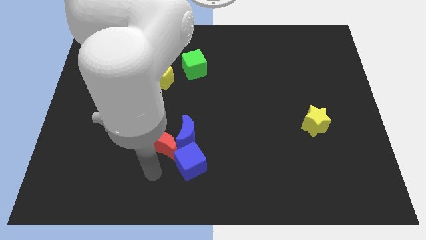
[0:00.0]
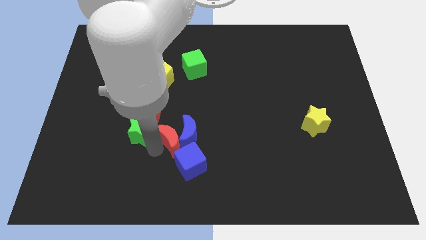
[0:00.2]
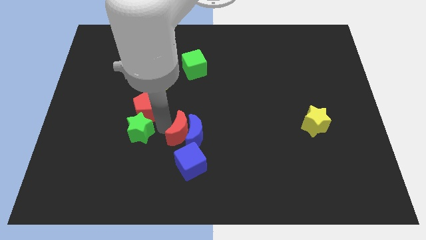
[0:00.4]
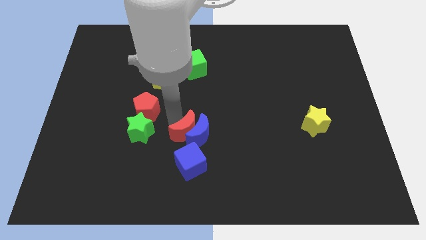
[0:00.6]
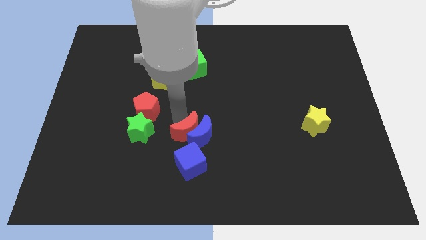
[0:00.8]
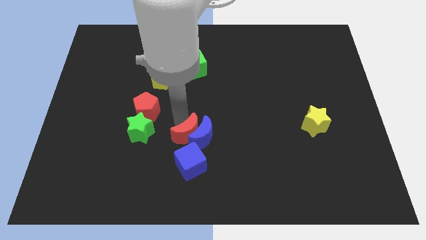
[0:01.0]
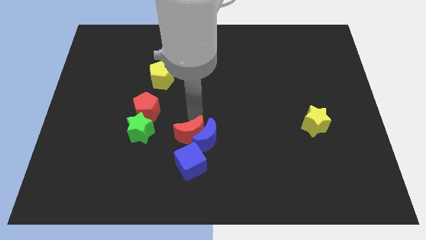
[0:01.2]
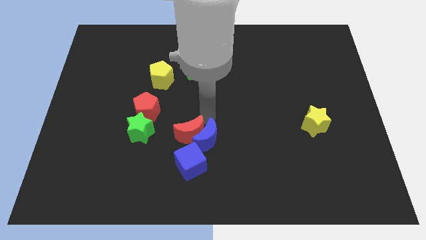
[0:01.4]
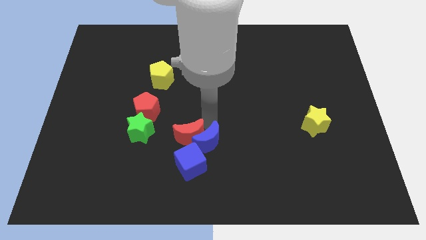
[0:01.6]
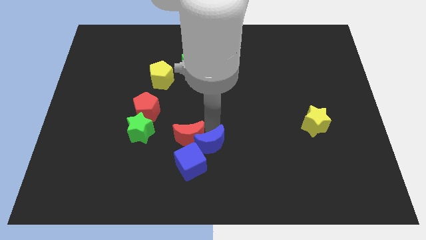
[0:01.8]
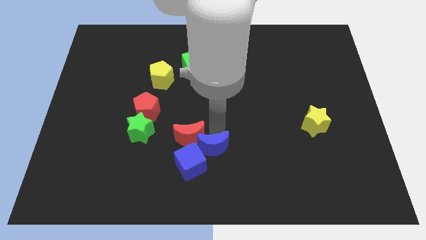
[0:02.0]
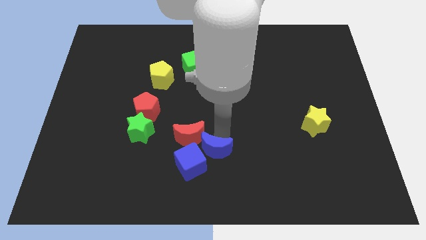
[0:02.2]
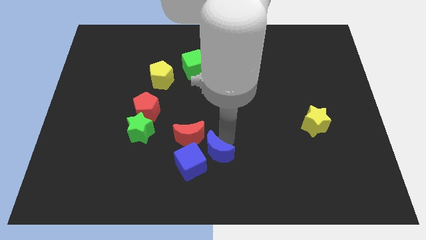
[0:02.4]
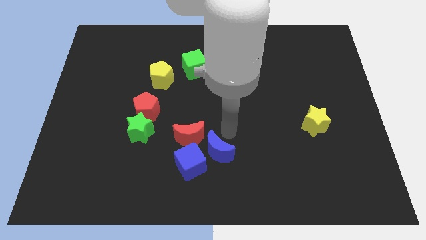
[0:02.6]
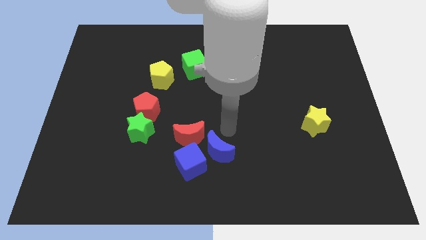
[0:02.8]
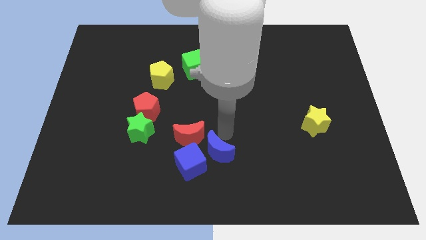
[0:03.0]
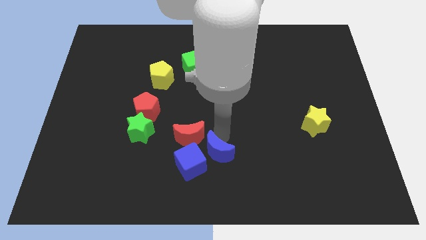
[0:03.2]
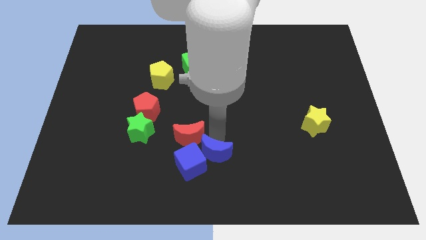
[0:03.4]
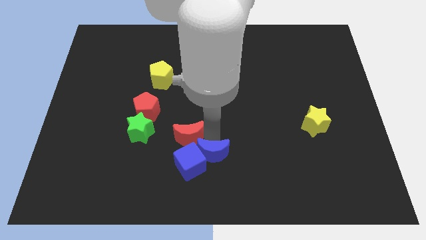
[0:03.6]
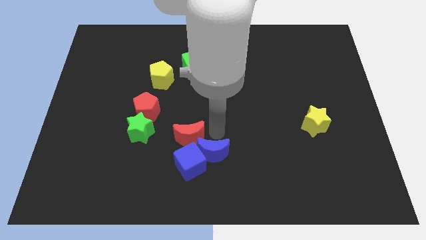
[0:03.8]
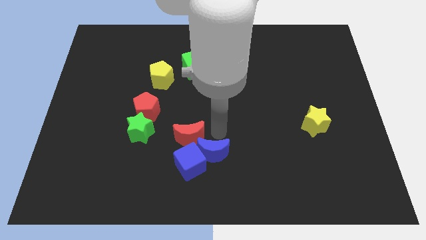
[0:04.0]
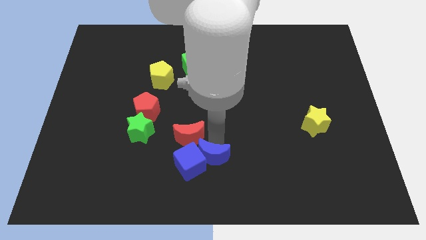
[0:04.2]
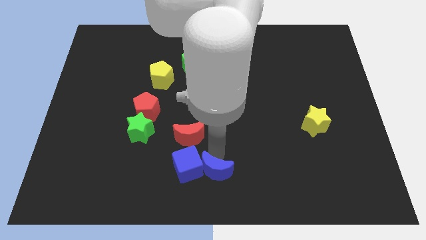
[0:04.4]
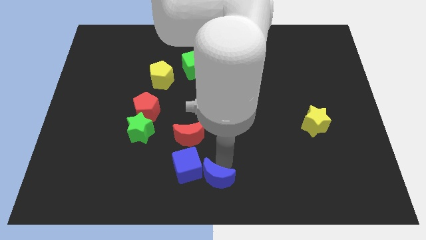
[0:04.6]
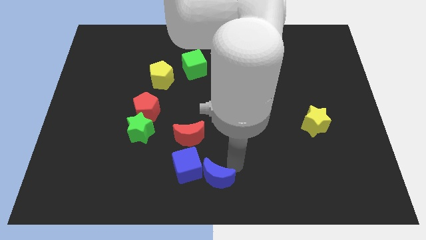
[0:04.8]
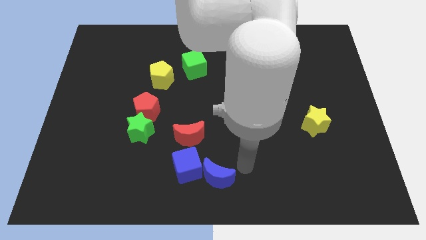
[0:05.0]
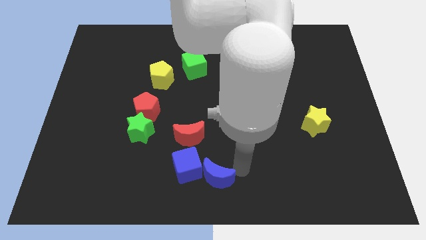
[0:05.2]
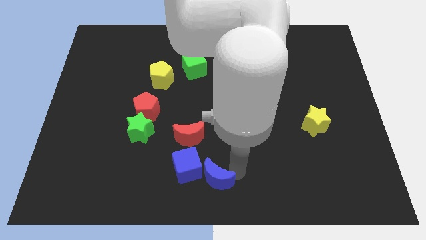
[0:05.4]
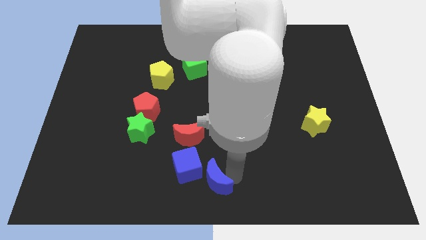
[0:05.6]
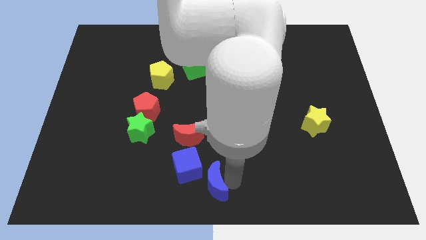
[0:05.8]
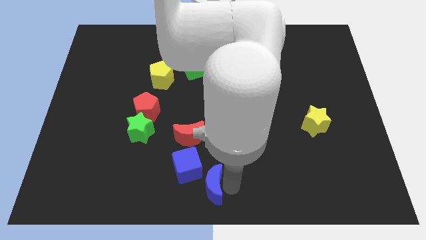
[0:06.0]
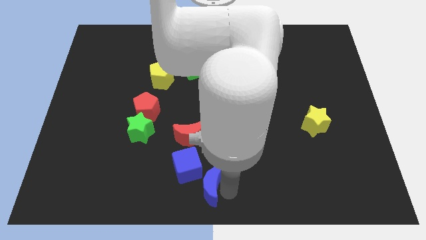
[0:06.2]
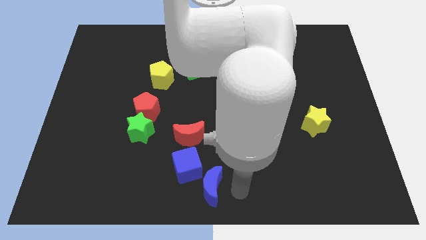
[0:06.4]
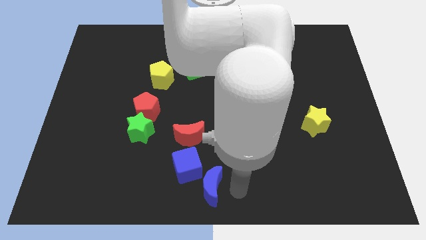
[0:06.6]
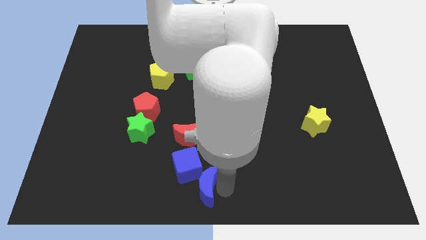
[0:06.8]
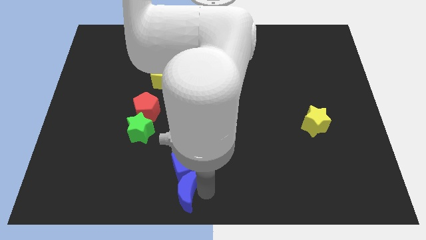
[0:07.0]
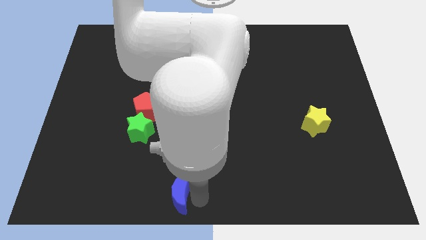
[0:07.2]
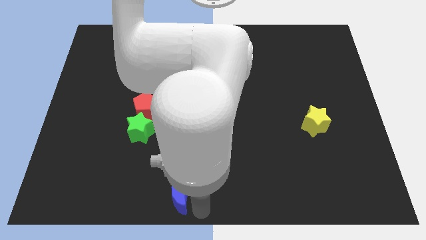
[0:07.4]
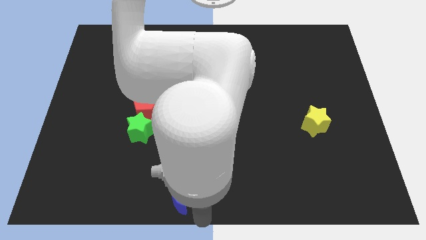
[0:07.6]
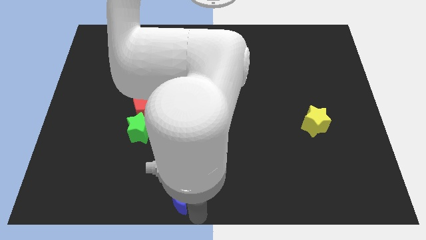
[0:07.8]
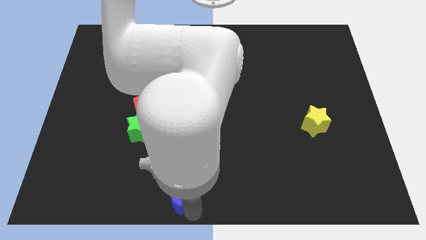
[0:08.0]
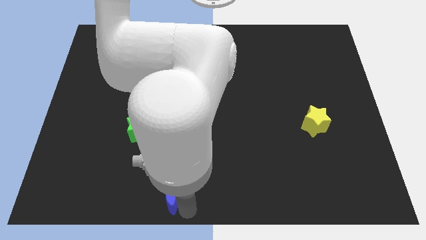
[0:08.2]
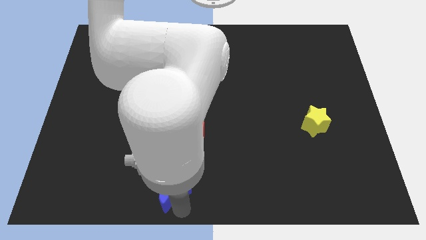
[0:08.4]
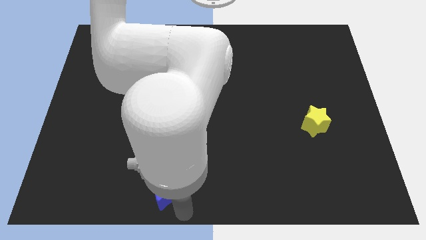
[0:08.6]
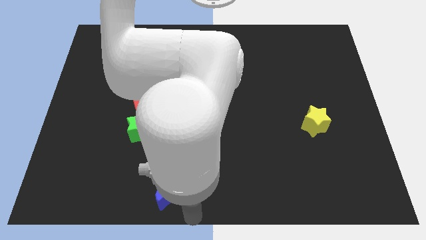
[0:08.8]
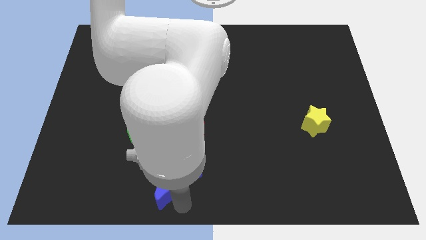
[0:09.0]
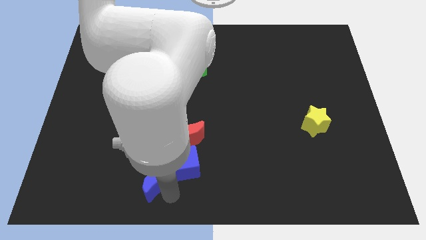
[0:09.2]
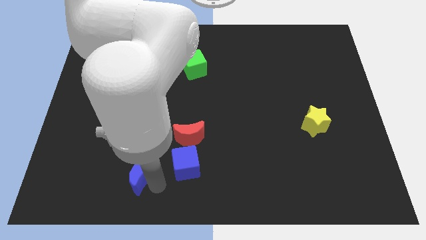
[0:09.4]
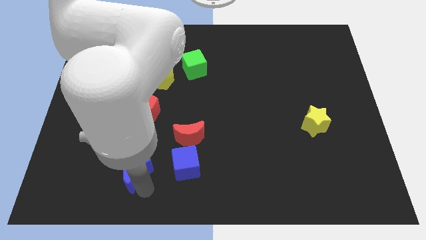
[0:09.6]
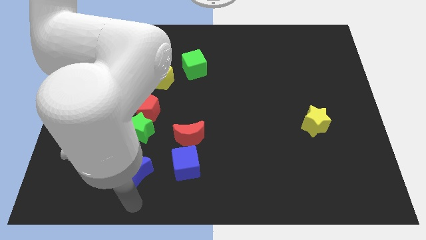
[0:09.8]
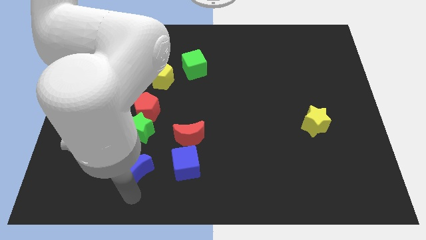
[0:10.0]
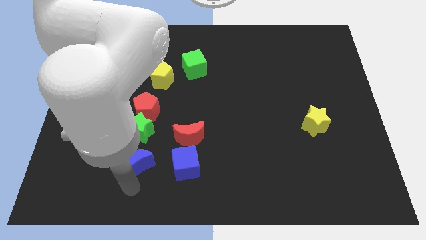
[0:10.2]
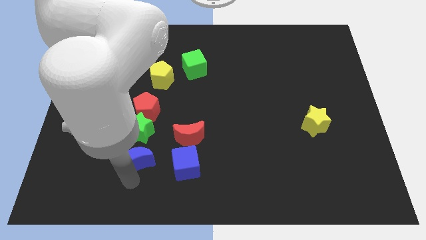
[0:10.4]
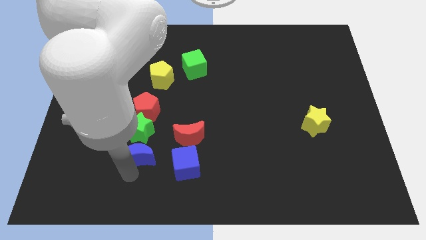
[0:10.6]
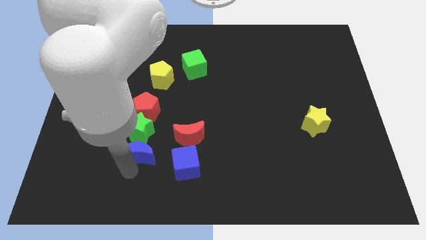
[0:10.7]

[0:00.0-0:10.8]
slide the blue moon to the left of the red moon

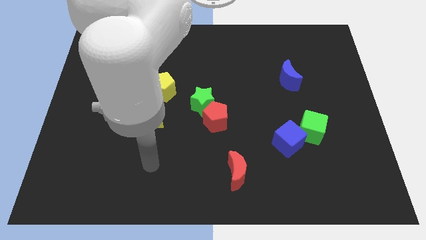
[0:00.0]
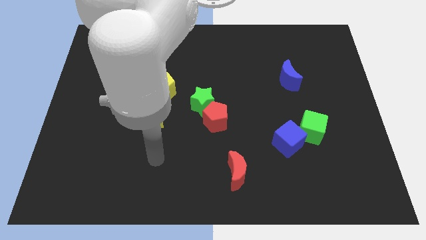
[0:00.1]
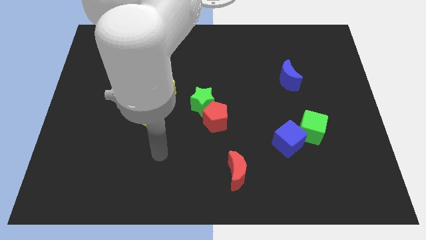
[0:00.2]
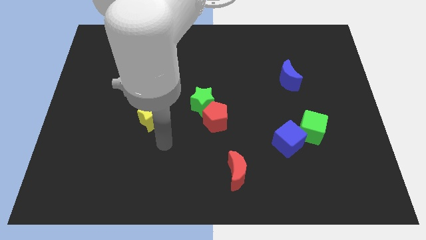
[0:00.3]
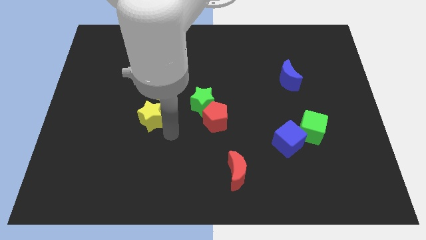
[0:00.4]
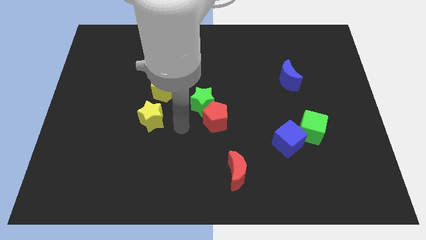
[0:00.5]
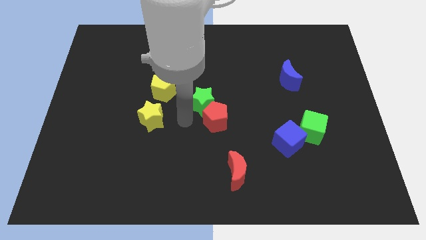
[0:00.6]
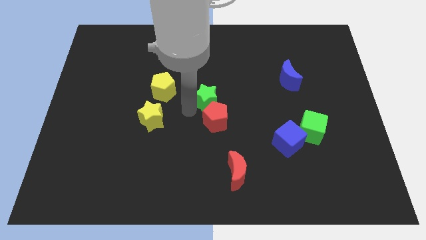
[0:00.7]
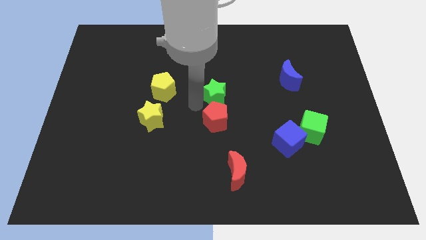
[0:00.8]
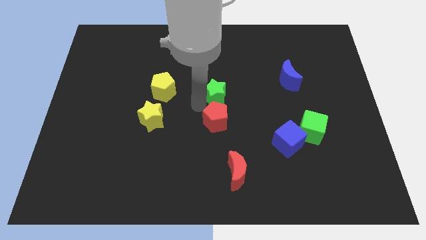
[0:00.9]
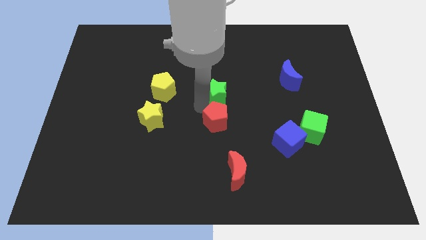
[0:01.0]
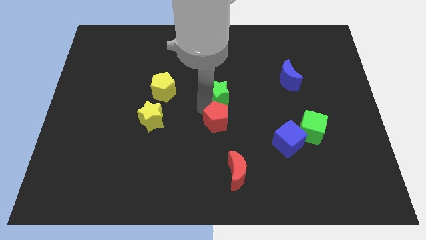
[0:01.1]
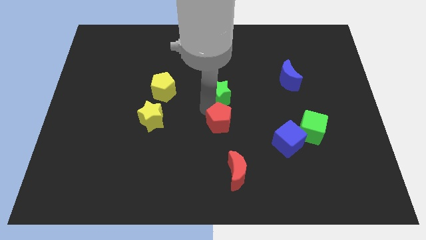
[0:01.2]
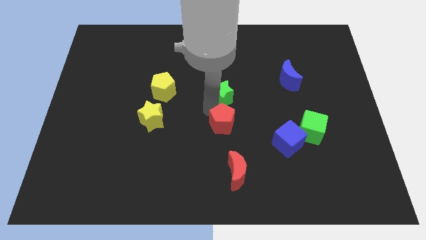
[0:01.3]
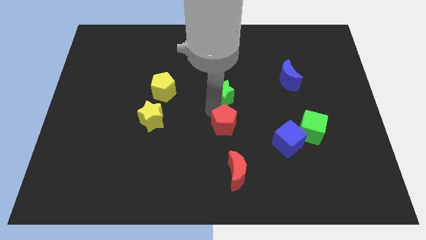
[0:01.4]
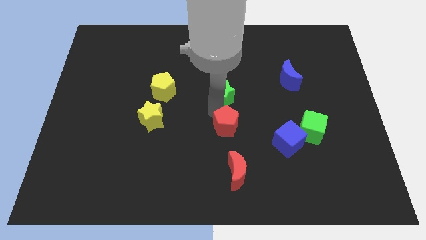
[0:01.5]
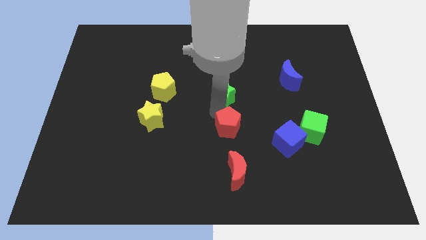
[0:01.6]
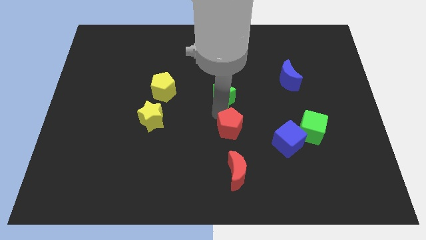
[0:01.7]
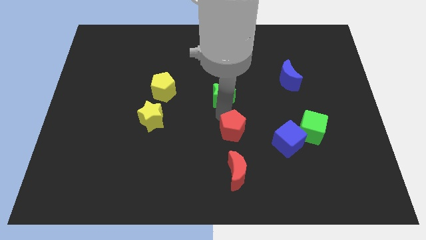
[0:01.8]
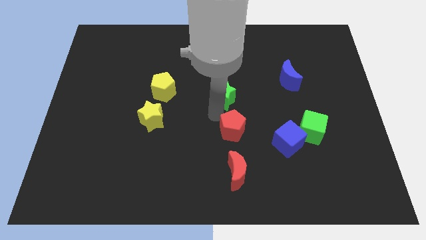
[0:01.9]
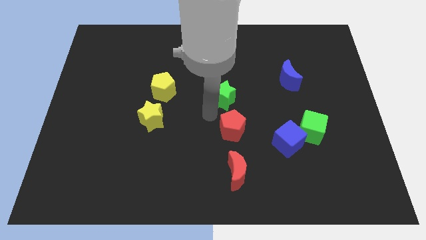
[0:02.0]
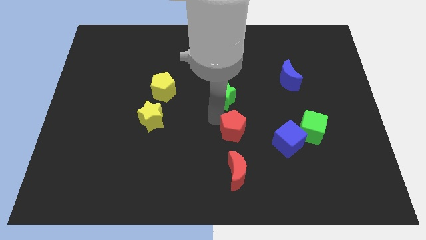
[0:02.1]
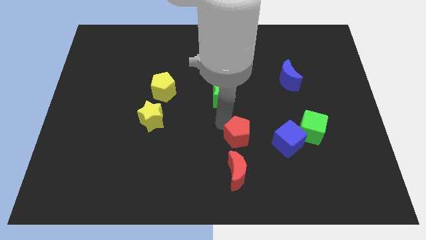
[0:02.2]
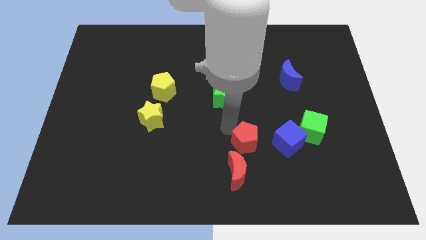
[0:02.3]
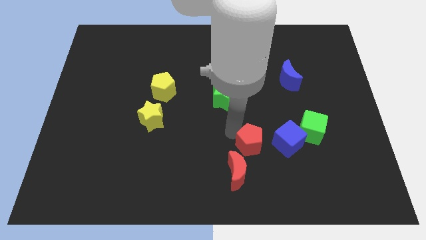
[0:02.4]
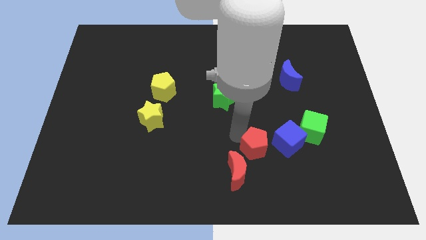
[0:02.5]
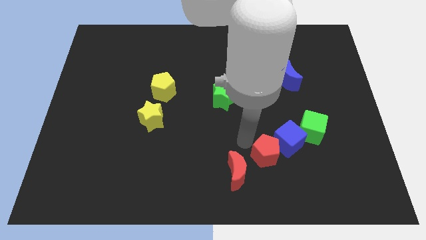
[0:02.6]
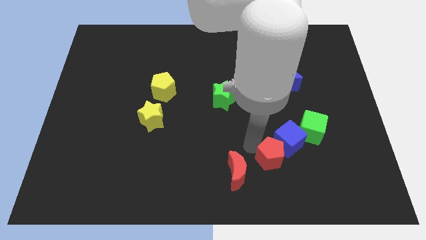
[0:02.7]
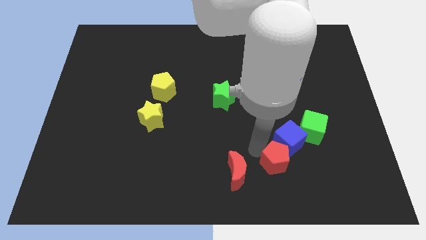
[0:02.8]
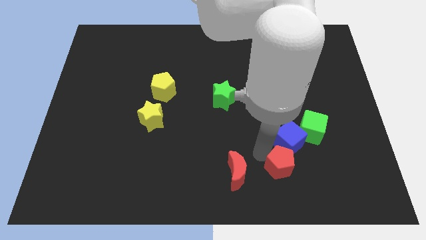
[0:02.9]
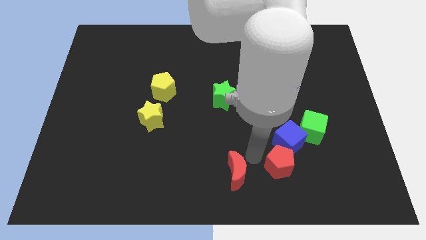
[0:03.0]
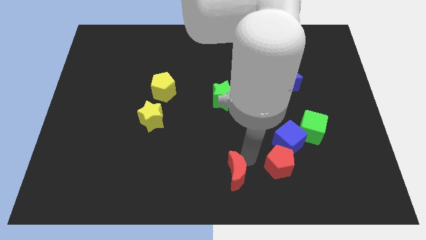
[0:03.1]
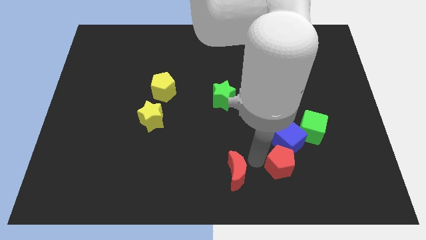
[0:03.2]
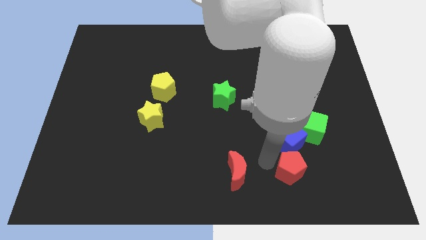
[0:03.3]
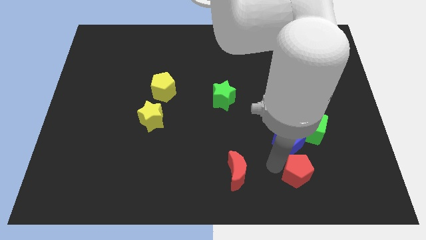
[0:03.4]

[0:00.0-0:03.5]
put the red pentagon to the bottom of the green cube
